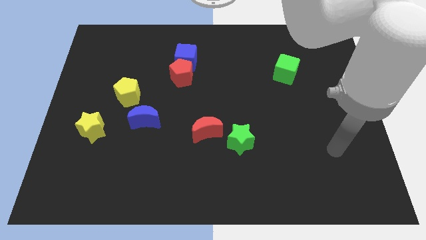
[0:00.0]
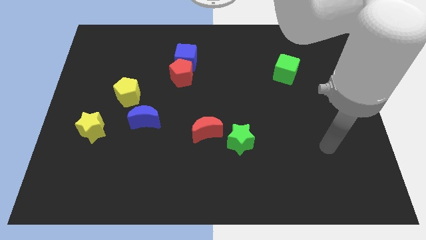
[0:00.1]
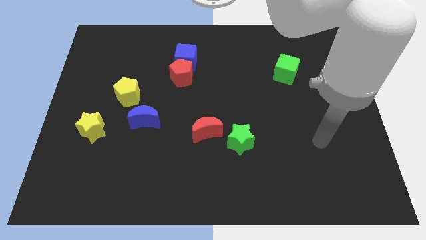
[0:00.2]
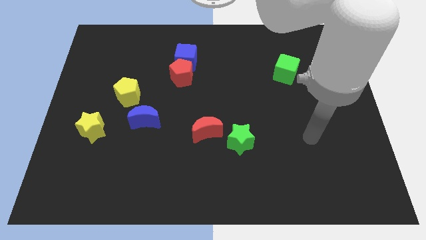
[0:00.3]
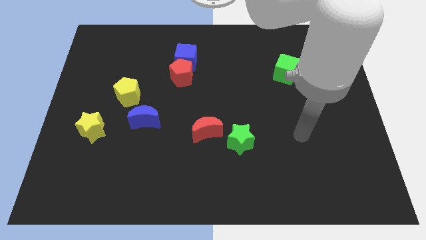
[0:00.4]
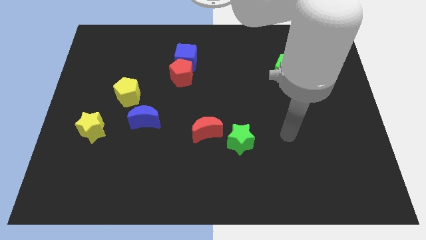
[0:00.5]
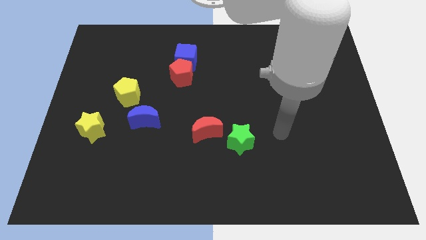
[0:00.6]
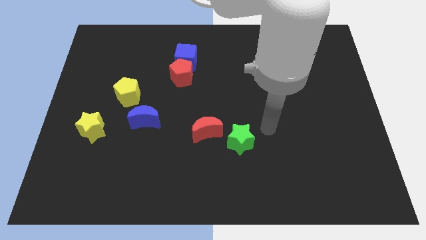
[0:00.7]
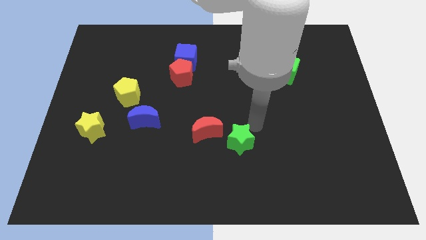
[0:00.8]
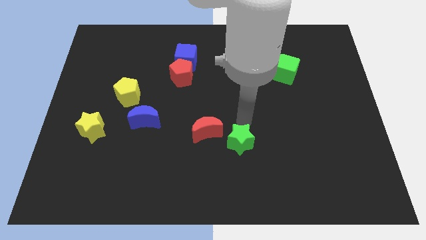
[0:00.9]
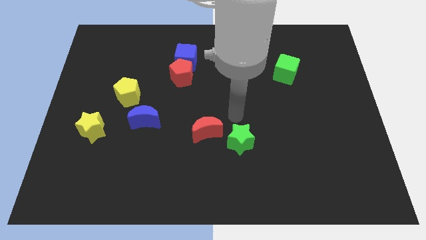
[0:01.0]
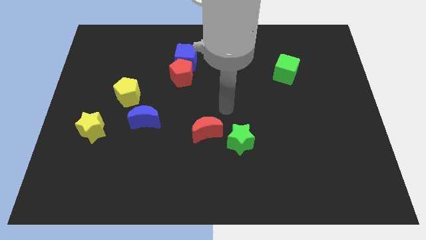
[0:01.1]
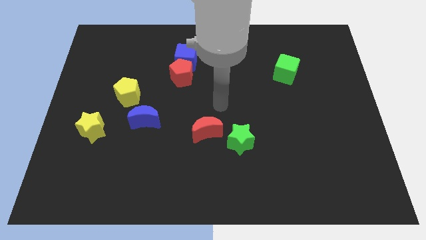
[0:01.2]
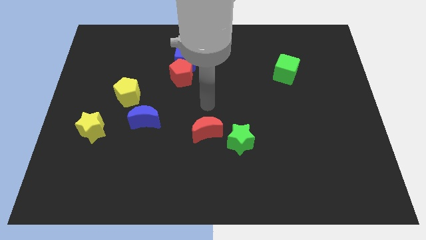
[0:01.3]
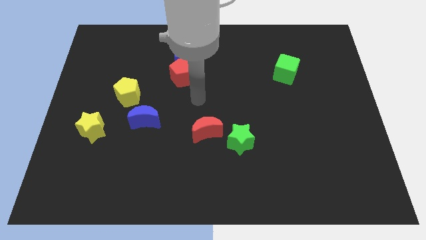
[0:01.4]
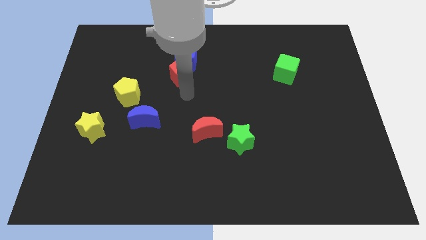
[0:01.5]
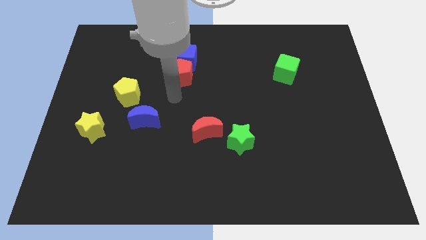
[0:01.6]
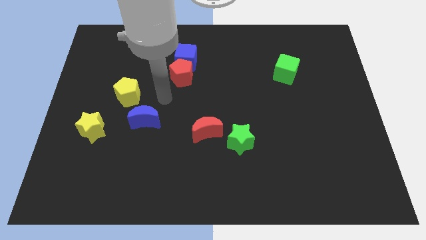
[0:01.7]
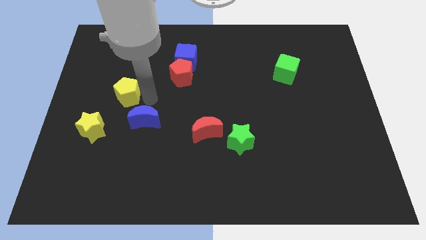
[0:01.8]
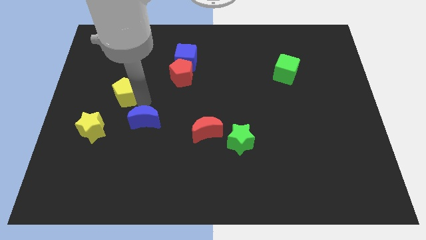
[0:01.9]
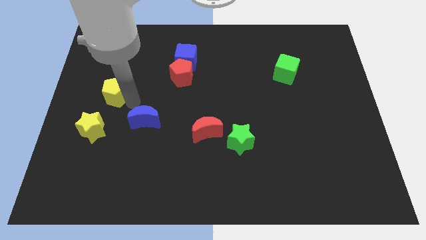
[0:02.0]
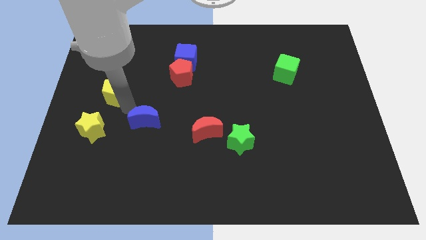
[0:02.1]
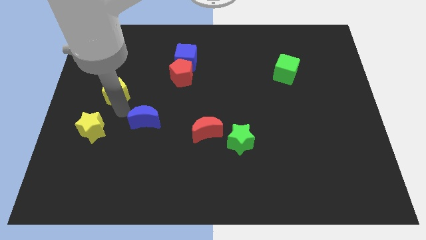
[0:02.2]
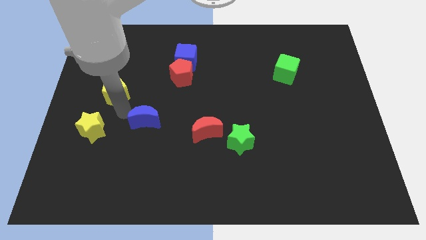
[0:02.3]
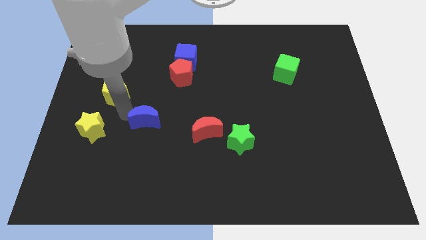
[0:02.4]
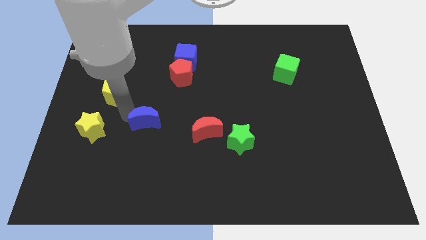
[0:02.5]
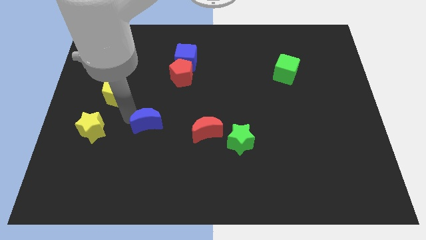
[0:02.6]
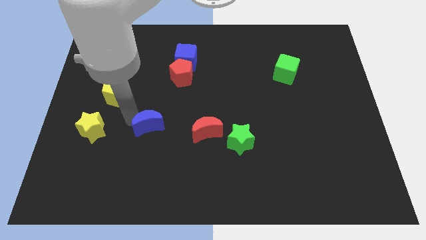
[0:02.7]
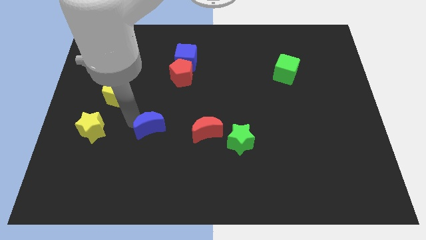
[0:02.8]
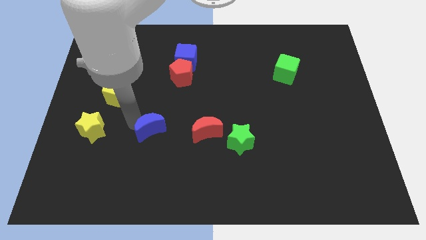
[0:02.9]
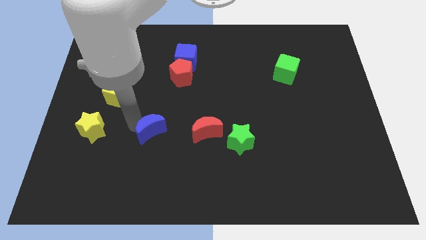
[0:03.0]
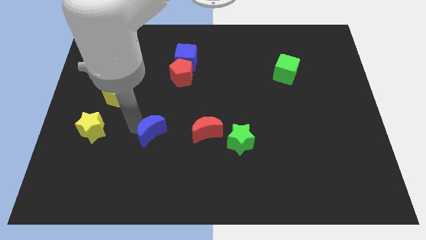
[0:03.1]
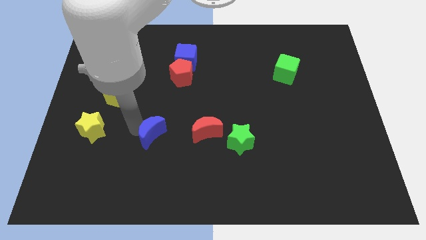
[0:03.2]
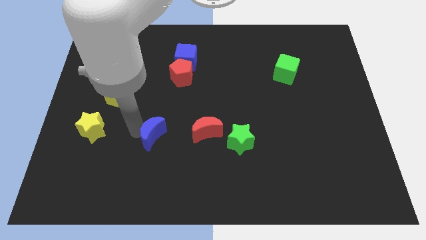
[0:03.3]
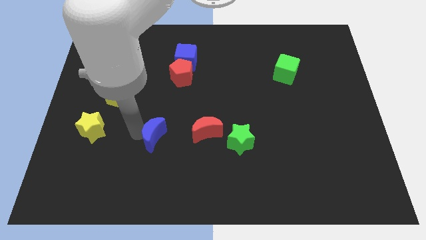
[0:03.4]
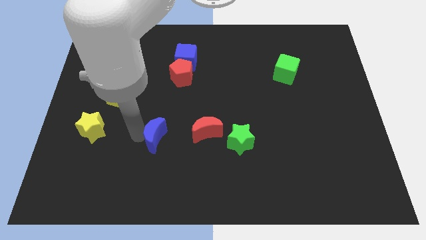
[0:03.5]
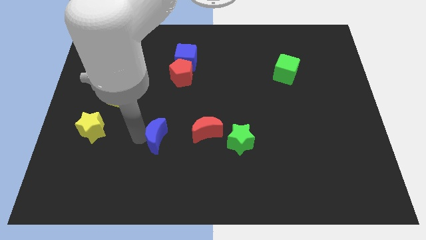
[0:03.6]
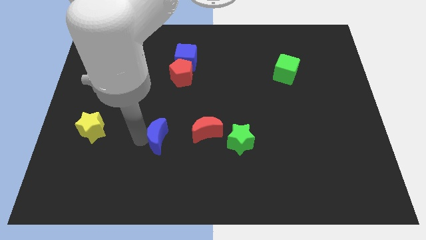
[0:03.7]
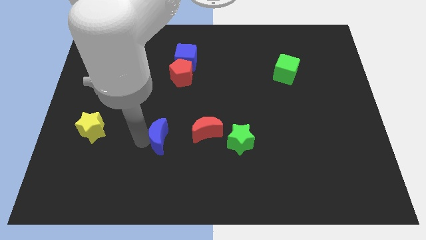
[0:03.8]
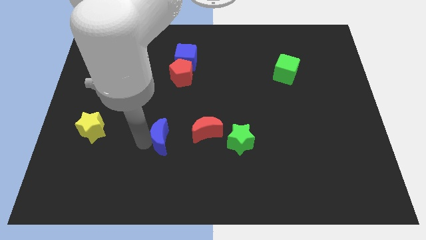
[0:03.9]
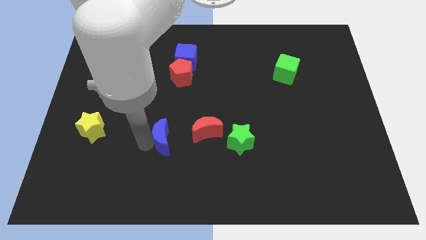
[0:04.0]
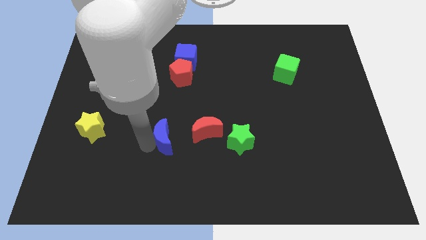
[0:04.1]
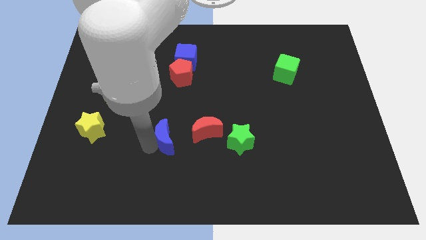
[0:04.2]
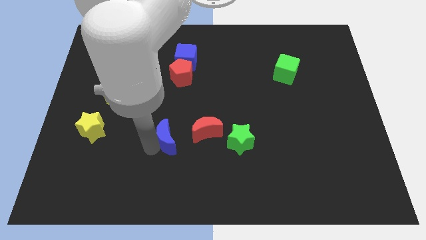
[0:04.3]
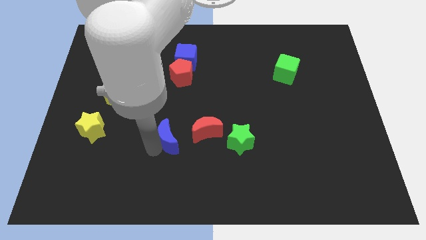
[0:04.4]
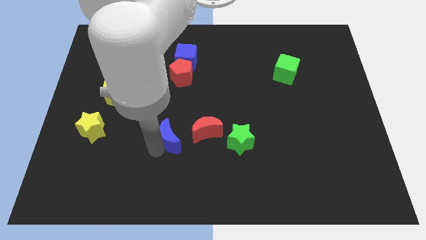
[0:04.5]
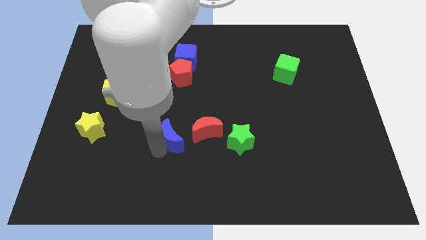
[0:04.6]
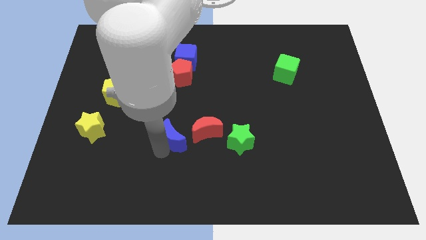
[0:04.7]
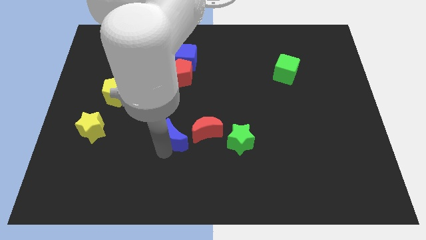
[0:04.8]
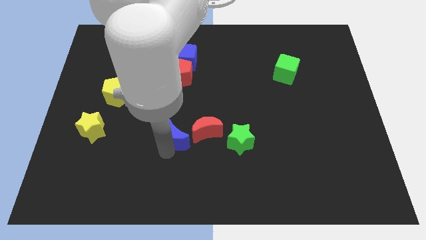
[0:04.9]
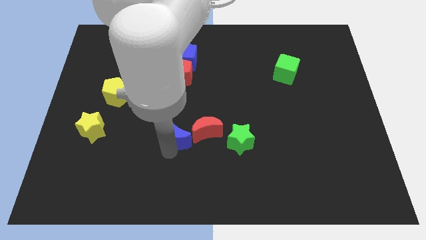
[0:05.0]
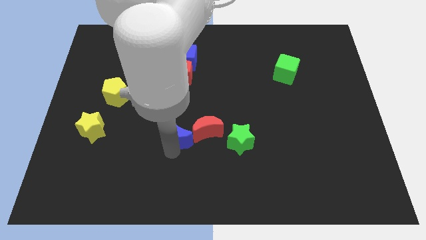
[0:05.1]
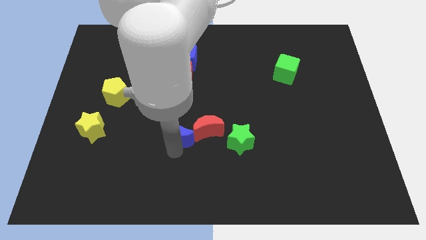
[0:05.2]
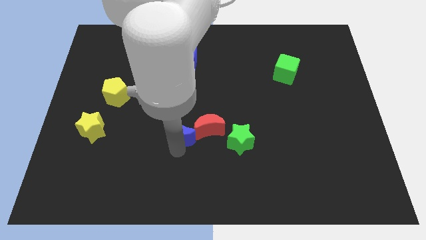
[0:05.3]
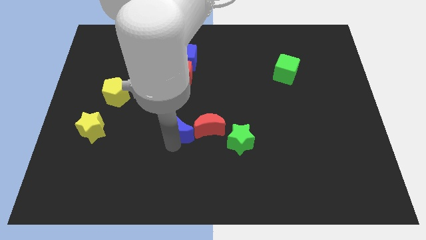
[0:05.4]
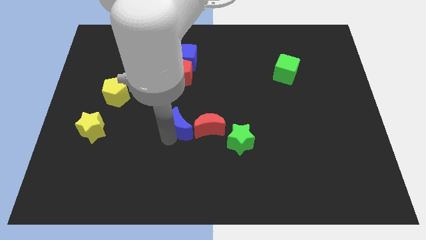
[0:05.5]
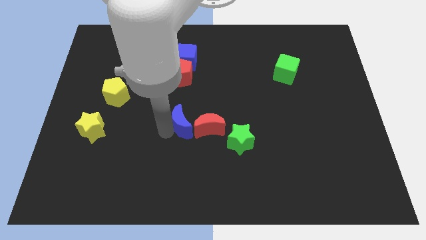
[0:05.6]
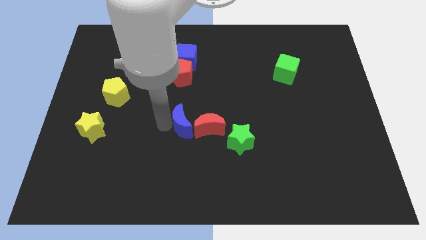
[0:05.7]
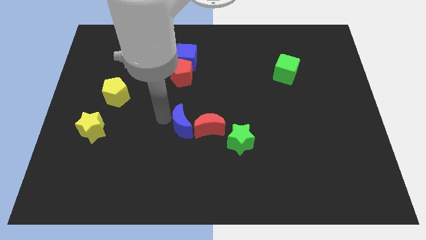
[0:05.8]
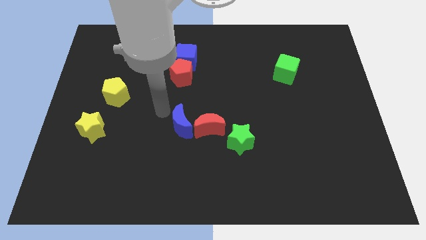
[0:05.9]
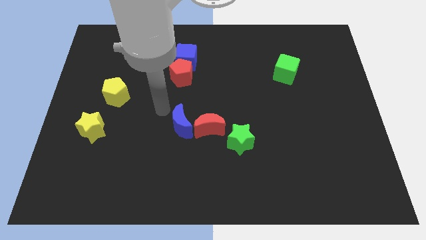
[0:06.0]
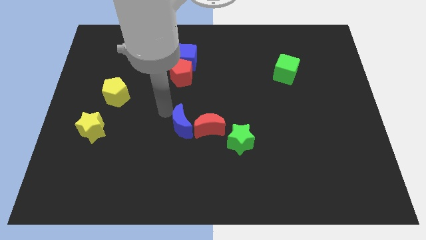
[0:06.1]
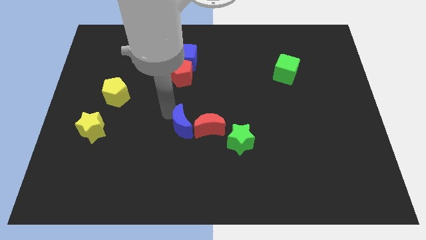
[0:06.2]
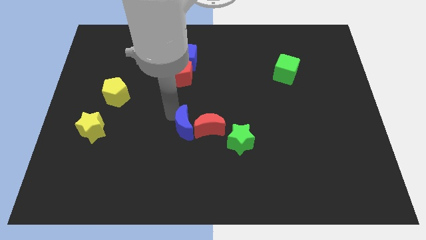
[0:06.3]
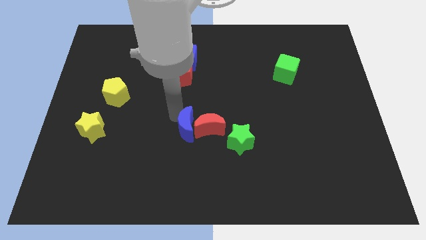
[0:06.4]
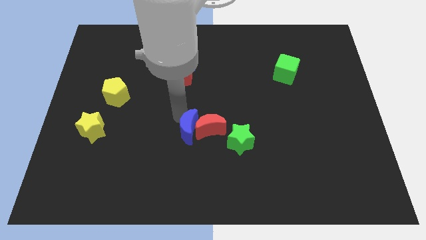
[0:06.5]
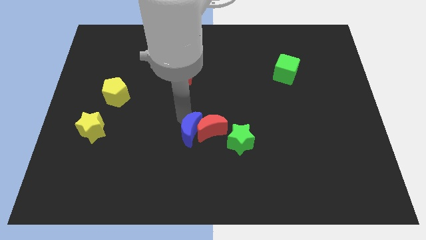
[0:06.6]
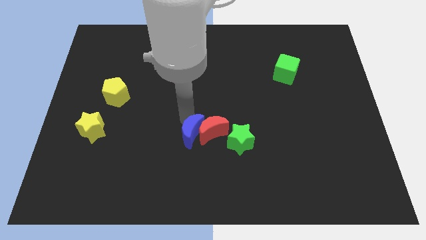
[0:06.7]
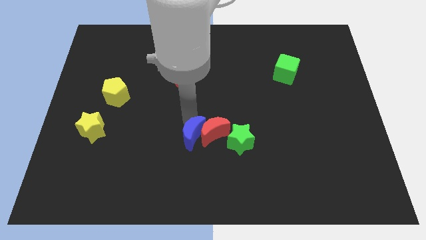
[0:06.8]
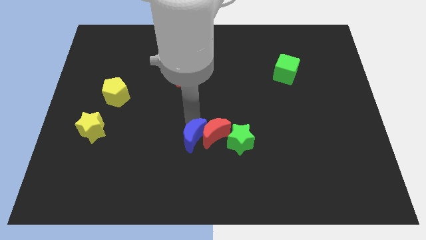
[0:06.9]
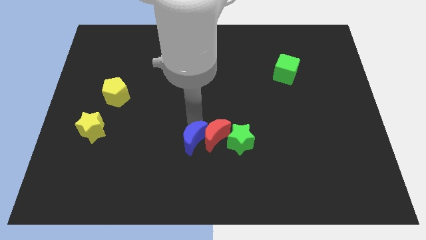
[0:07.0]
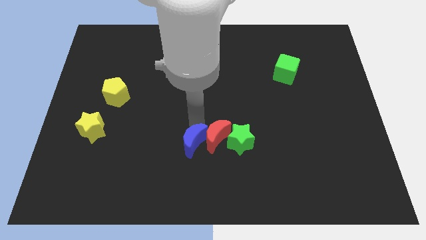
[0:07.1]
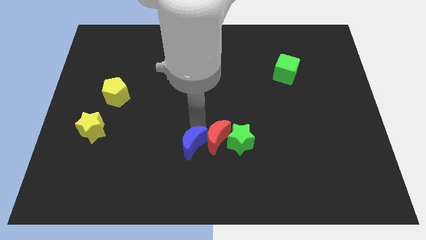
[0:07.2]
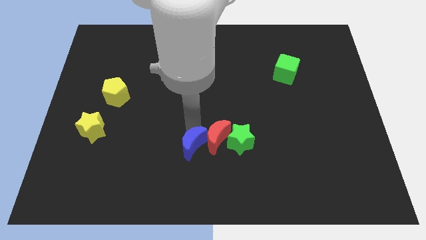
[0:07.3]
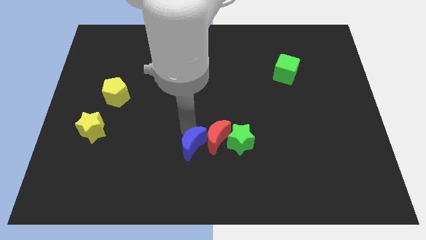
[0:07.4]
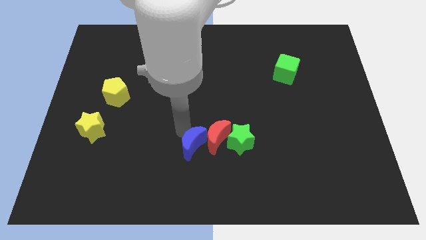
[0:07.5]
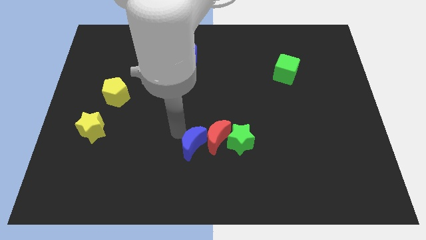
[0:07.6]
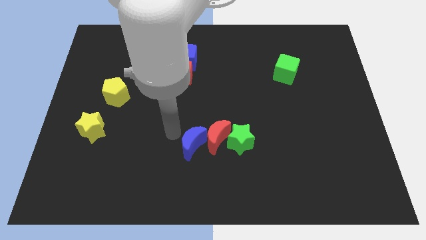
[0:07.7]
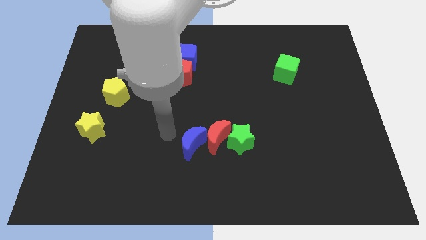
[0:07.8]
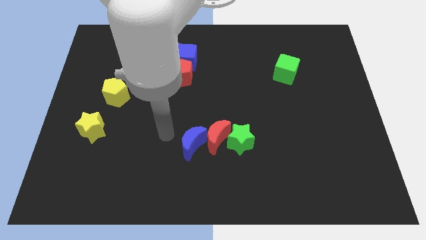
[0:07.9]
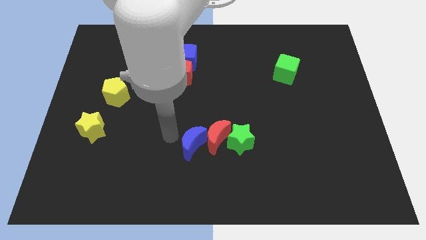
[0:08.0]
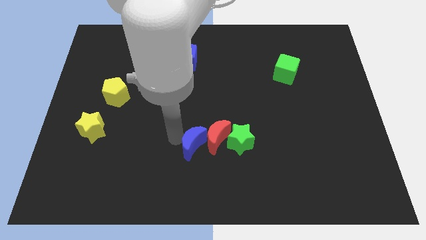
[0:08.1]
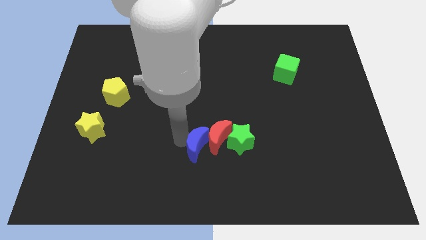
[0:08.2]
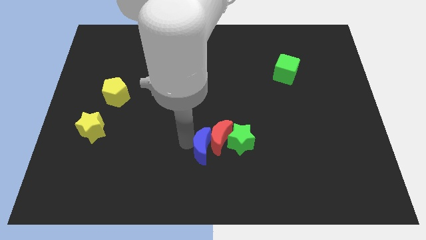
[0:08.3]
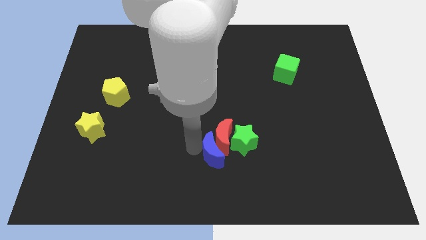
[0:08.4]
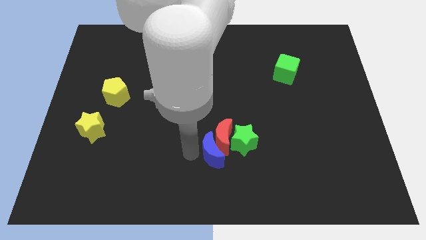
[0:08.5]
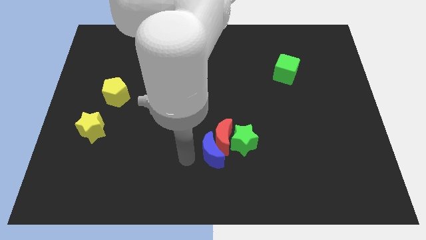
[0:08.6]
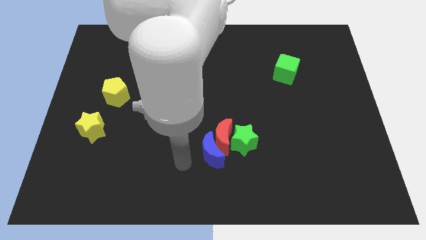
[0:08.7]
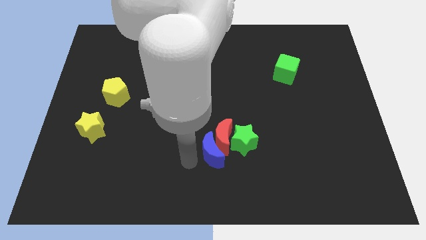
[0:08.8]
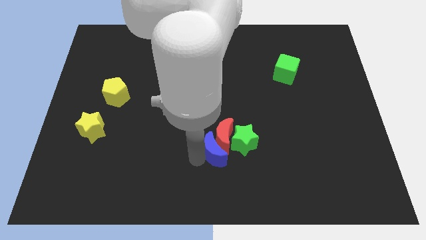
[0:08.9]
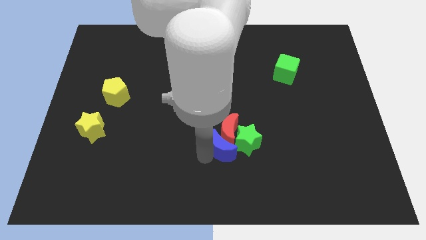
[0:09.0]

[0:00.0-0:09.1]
slide the blue moon to the green star
